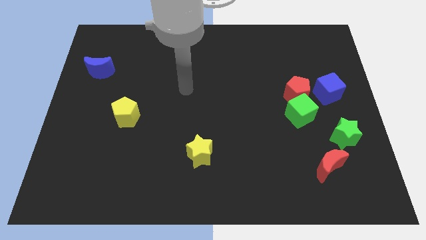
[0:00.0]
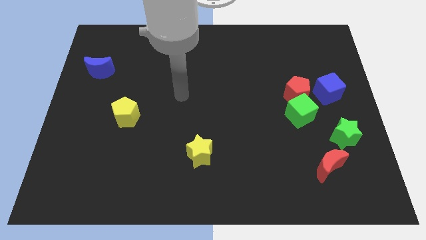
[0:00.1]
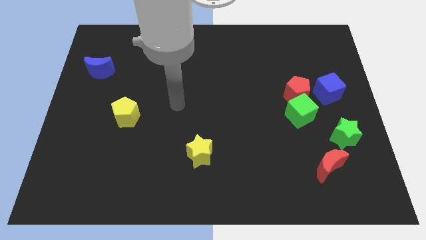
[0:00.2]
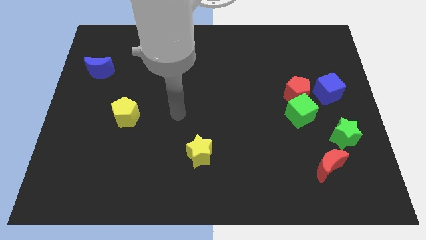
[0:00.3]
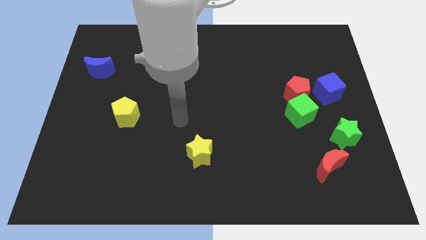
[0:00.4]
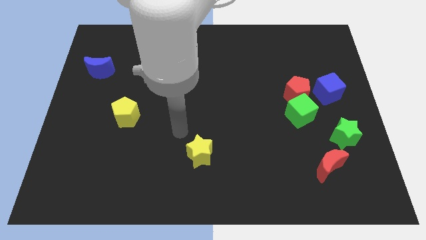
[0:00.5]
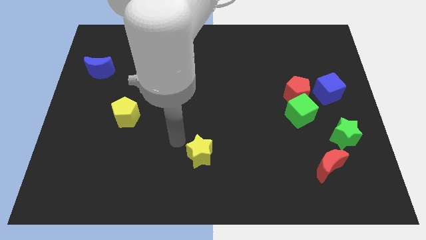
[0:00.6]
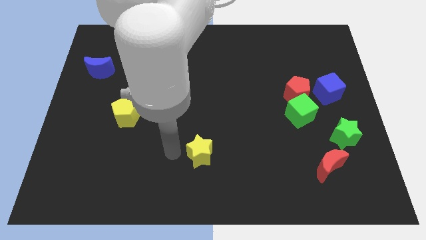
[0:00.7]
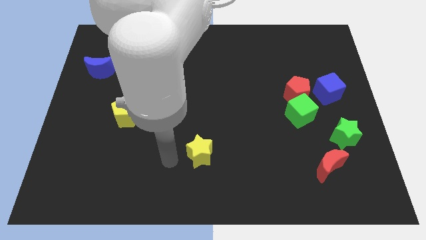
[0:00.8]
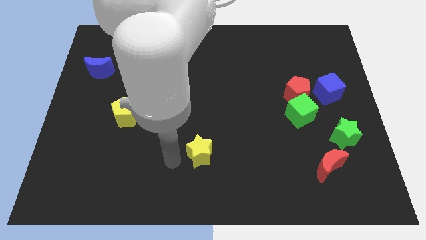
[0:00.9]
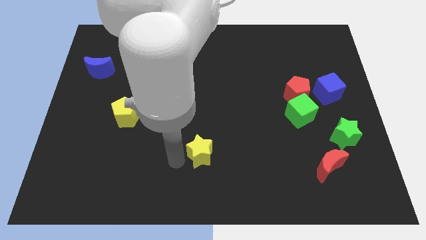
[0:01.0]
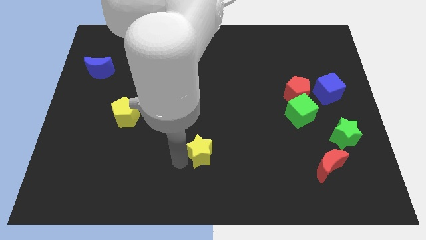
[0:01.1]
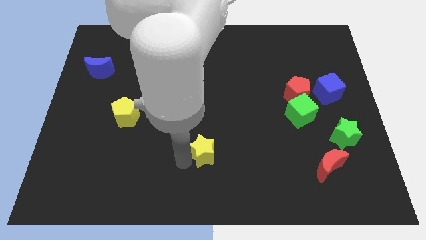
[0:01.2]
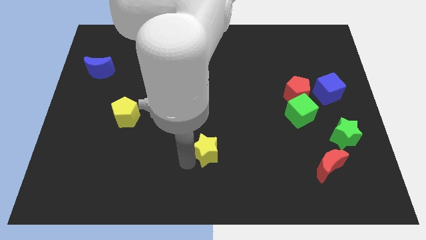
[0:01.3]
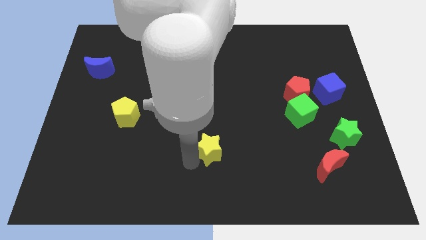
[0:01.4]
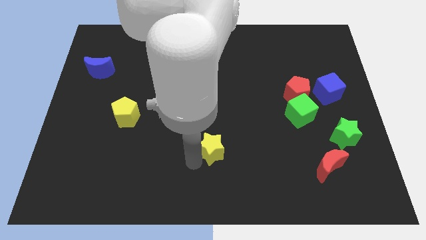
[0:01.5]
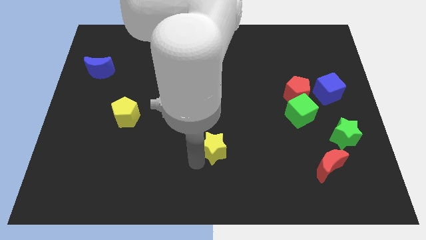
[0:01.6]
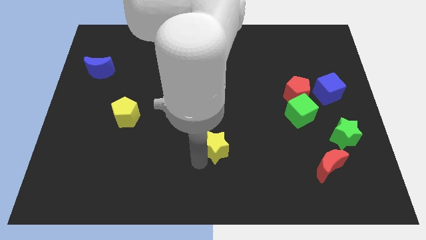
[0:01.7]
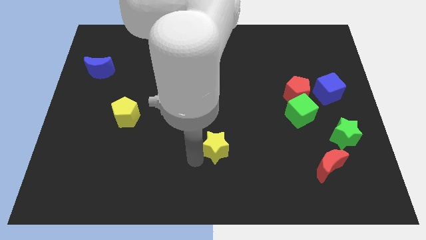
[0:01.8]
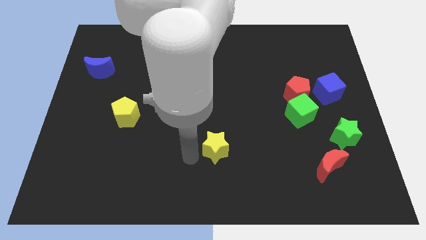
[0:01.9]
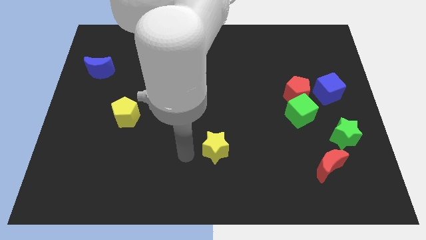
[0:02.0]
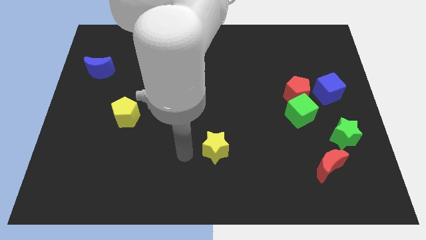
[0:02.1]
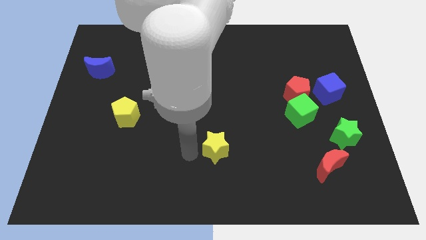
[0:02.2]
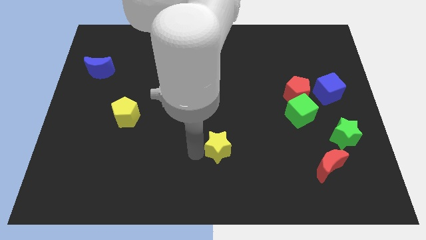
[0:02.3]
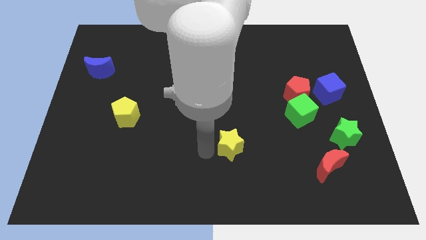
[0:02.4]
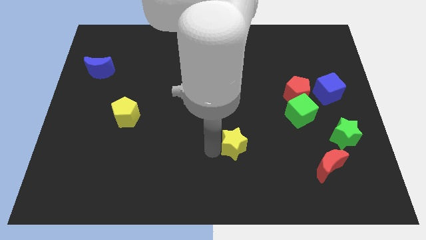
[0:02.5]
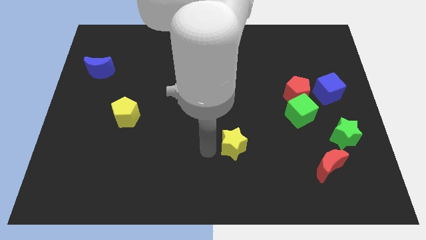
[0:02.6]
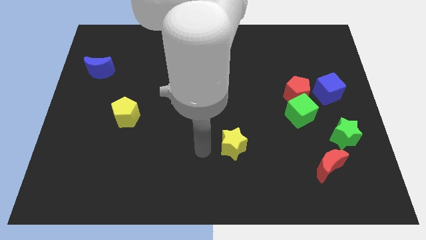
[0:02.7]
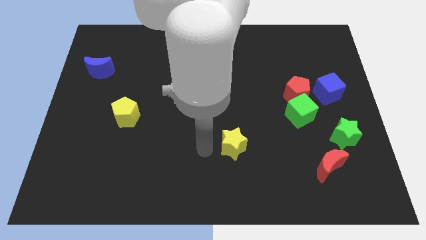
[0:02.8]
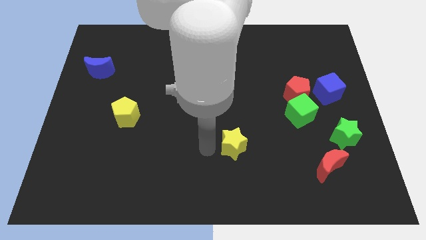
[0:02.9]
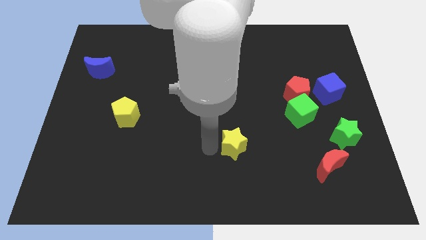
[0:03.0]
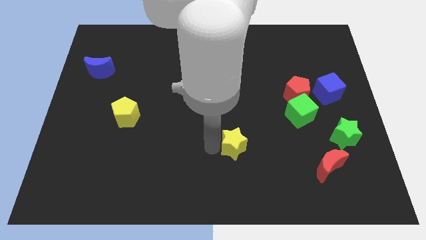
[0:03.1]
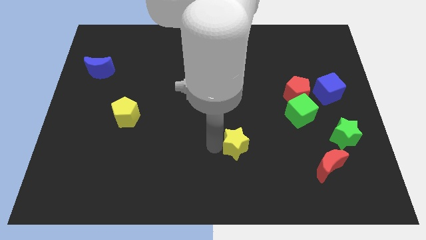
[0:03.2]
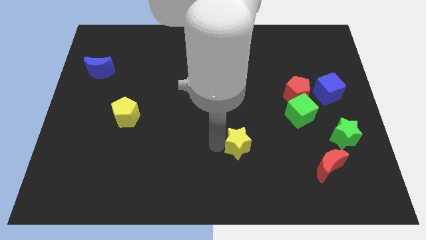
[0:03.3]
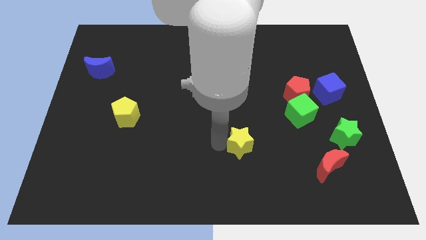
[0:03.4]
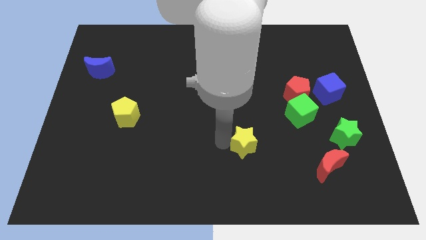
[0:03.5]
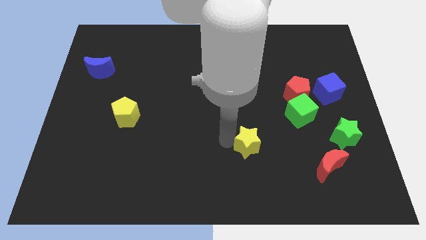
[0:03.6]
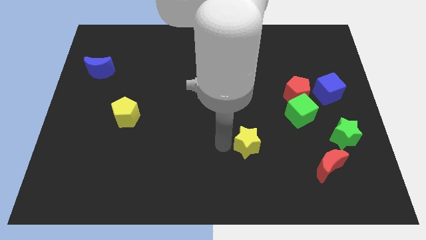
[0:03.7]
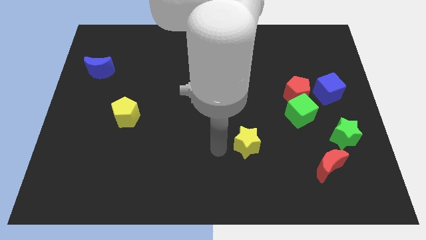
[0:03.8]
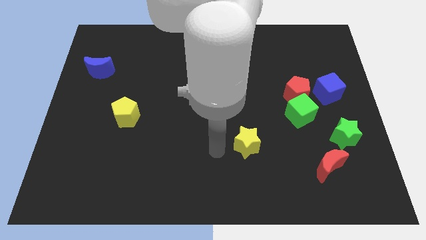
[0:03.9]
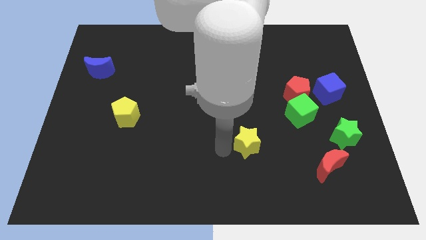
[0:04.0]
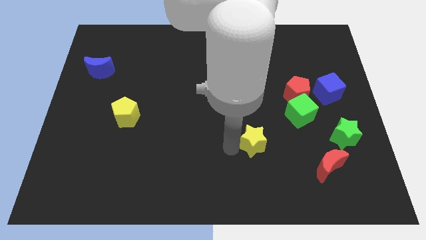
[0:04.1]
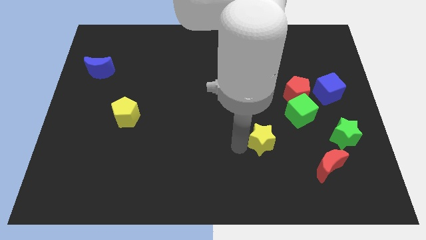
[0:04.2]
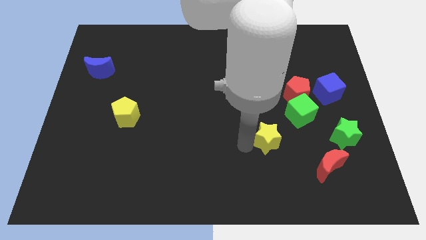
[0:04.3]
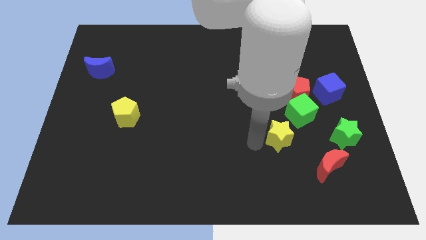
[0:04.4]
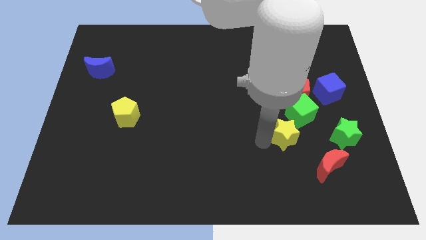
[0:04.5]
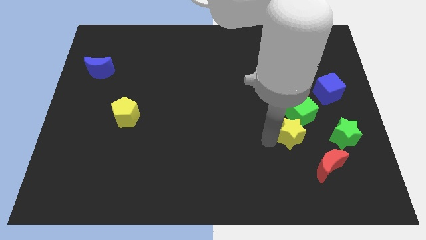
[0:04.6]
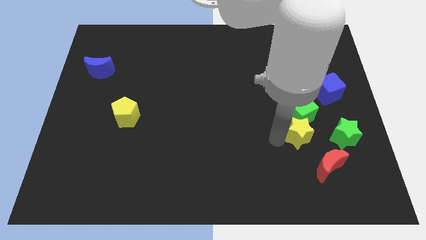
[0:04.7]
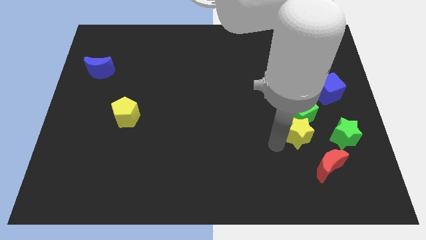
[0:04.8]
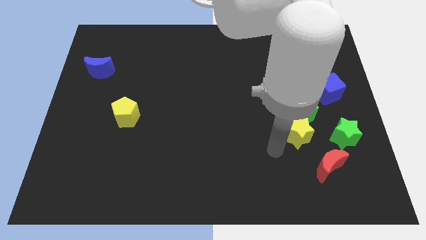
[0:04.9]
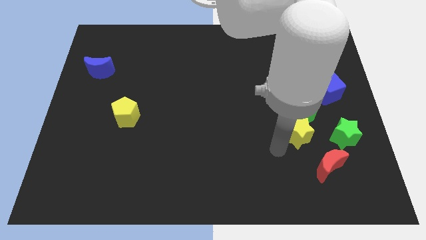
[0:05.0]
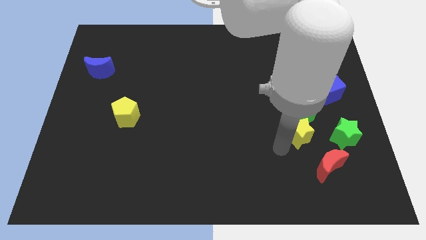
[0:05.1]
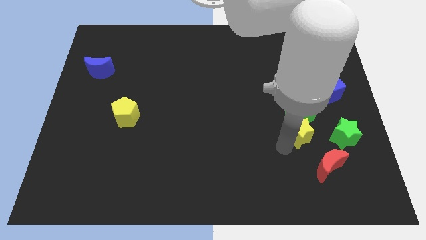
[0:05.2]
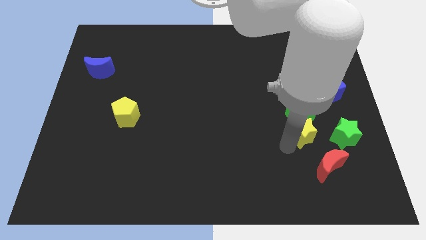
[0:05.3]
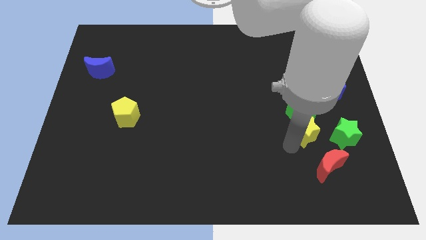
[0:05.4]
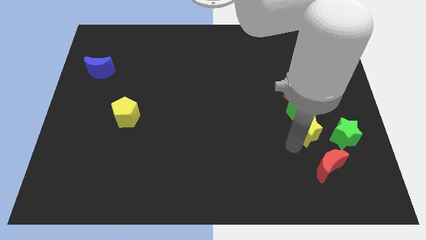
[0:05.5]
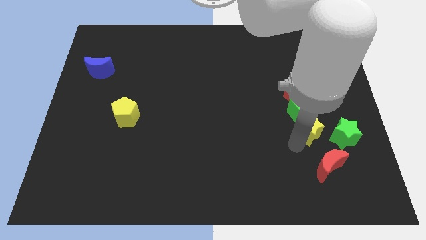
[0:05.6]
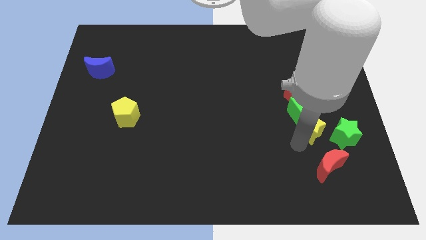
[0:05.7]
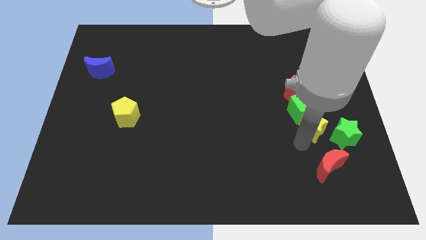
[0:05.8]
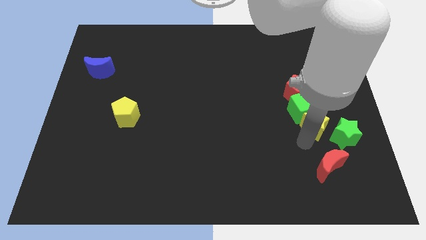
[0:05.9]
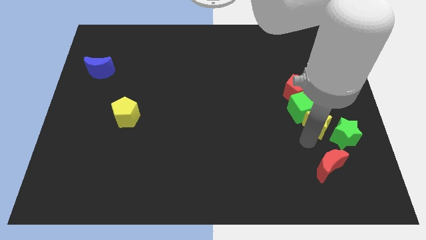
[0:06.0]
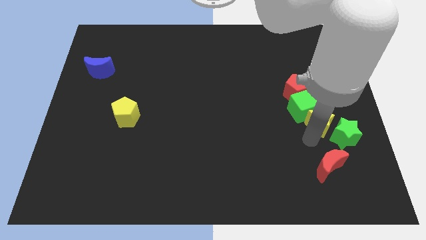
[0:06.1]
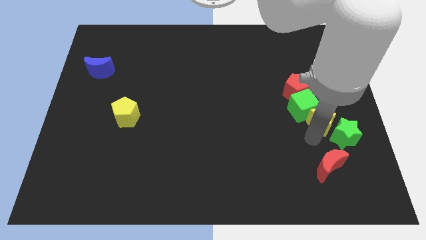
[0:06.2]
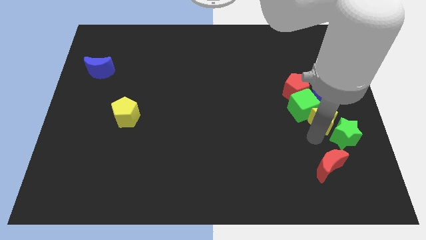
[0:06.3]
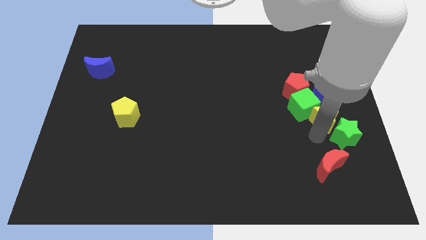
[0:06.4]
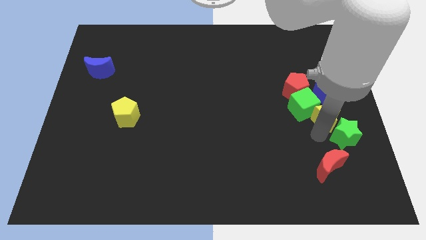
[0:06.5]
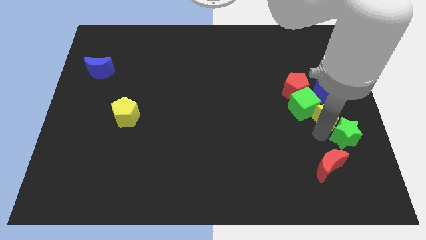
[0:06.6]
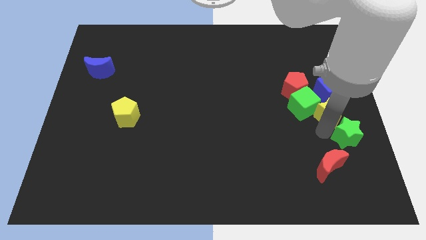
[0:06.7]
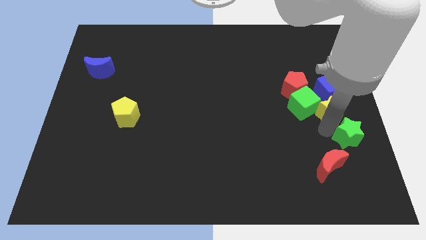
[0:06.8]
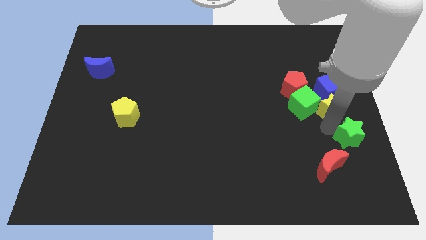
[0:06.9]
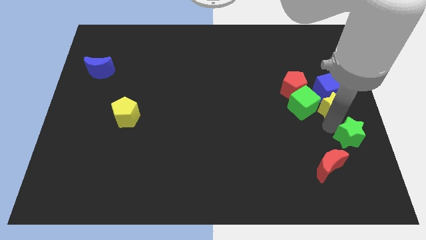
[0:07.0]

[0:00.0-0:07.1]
put the yellow star towards the blue cube

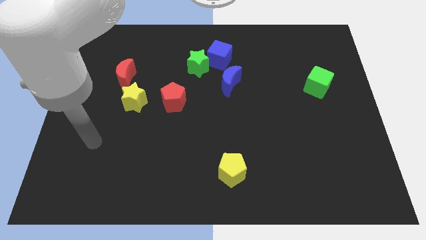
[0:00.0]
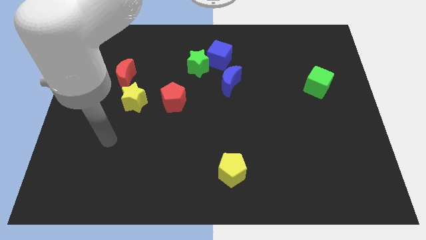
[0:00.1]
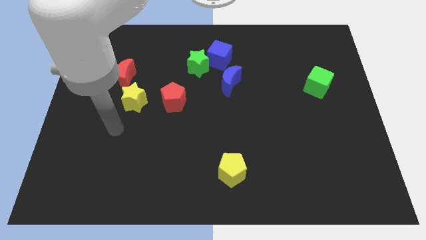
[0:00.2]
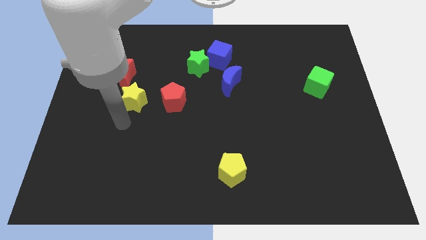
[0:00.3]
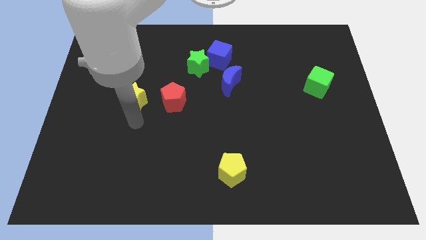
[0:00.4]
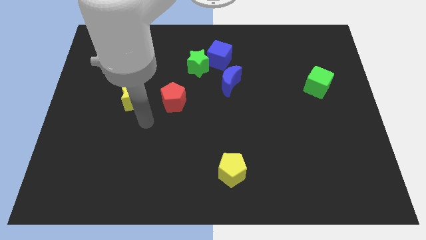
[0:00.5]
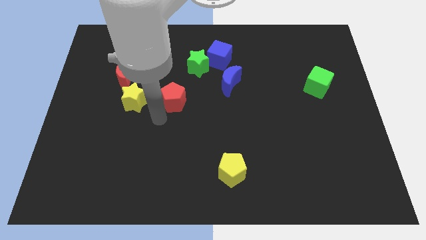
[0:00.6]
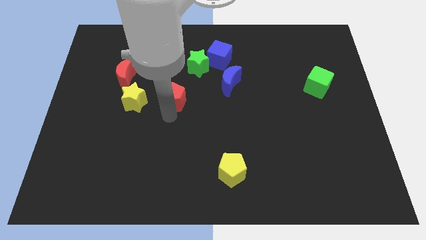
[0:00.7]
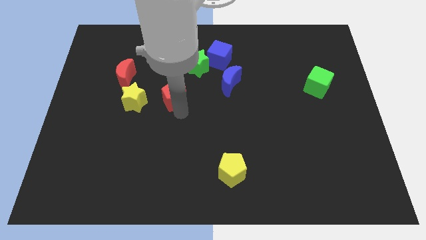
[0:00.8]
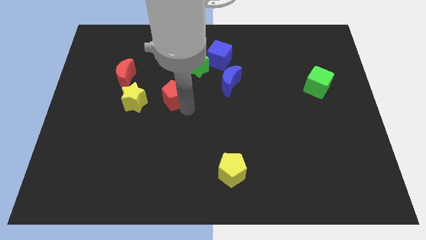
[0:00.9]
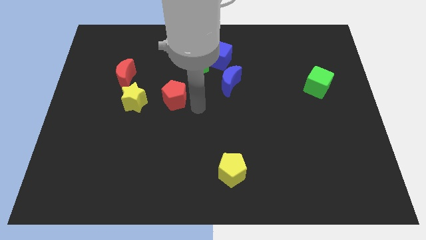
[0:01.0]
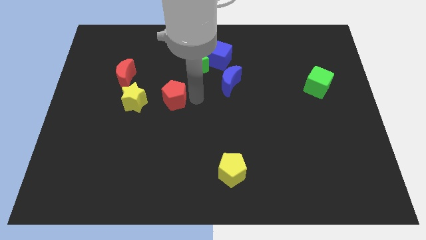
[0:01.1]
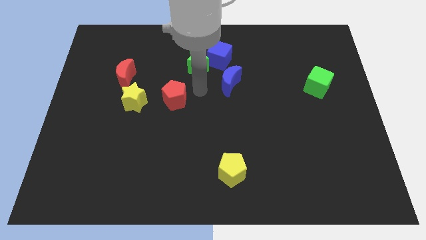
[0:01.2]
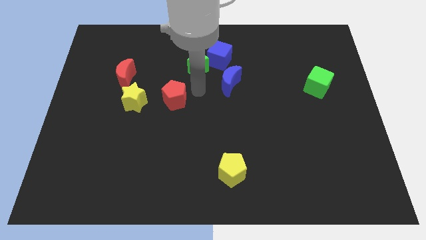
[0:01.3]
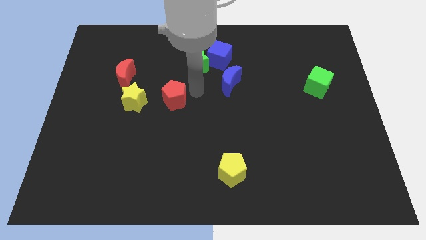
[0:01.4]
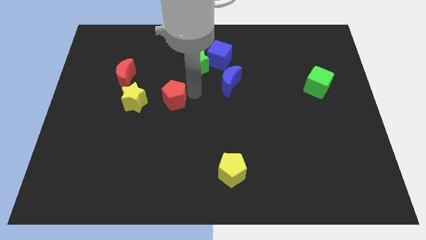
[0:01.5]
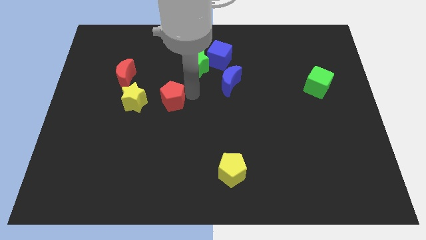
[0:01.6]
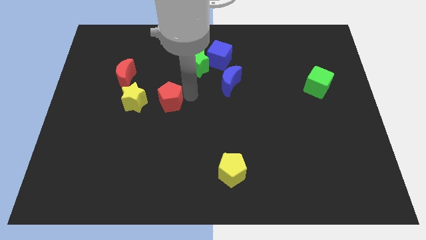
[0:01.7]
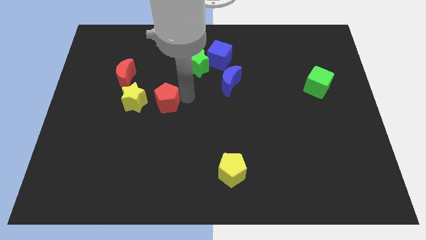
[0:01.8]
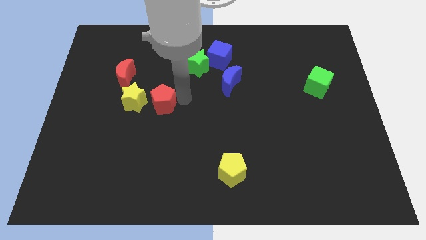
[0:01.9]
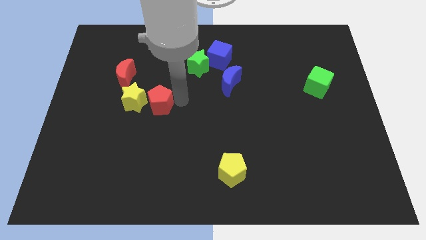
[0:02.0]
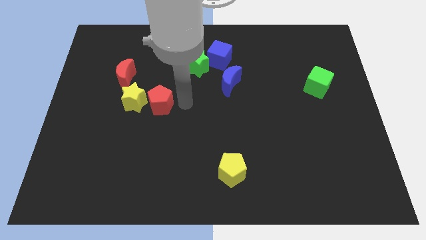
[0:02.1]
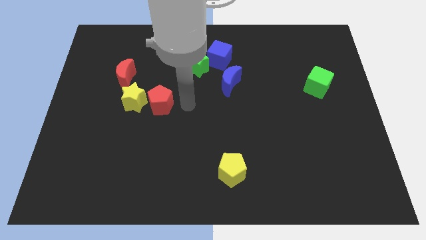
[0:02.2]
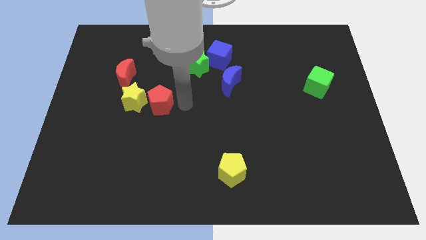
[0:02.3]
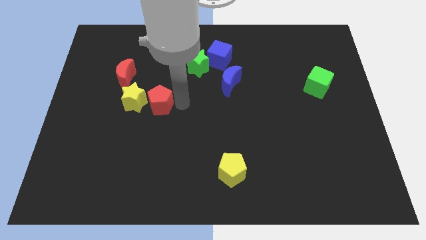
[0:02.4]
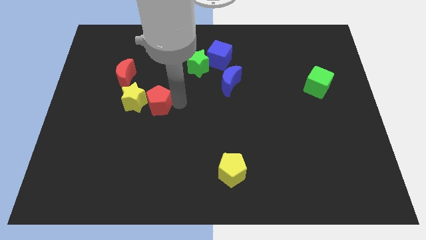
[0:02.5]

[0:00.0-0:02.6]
push the red pentagon towards the yellow star
